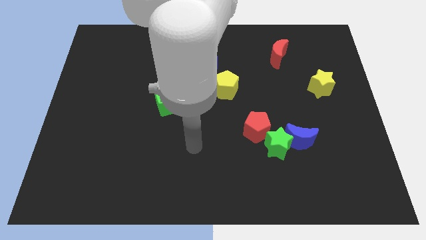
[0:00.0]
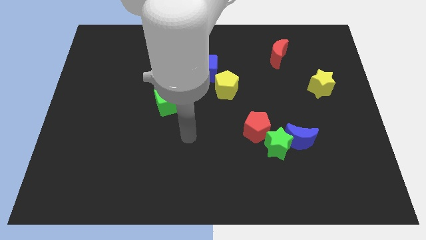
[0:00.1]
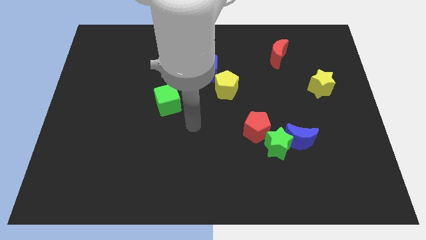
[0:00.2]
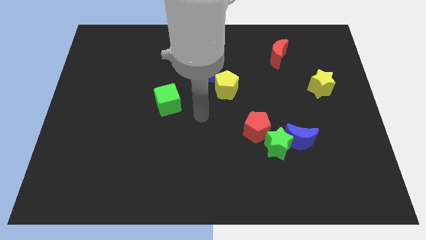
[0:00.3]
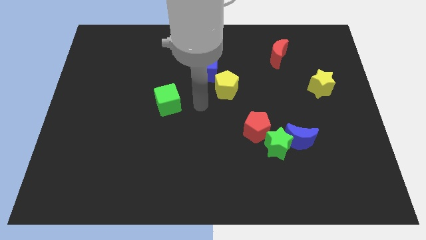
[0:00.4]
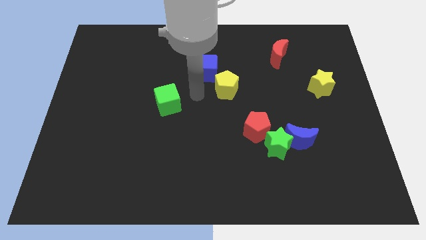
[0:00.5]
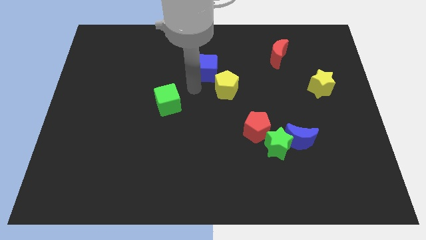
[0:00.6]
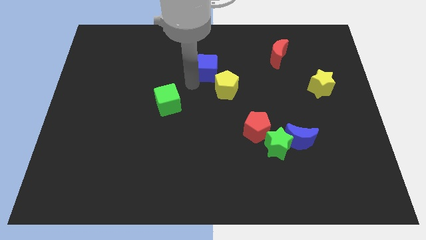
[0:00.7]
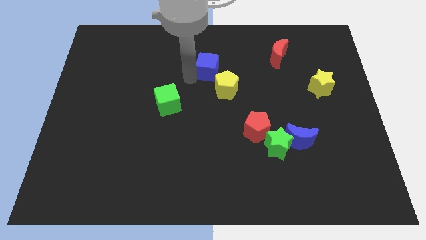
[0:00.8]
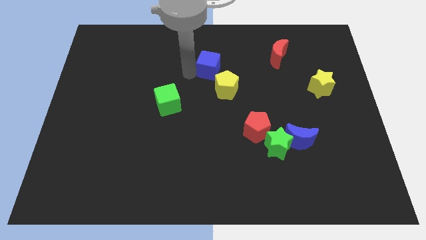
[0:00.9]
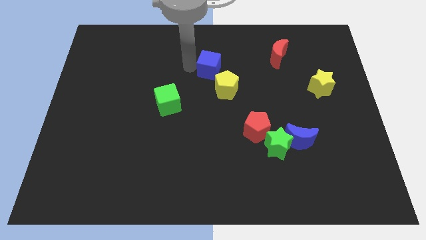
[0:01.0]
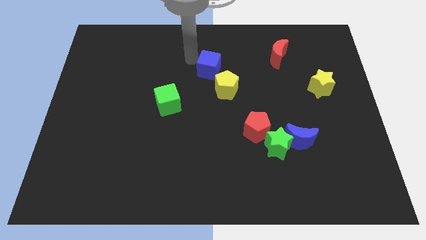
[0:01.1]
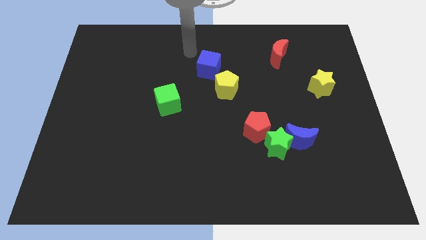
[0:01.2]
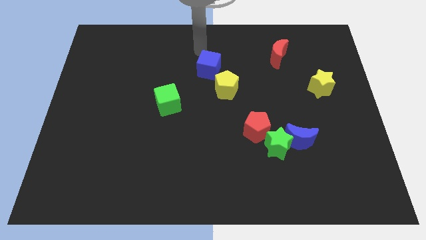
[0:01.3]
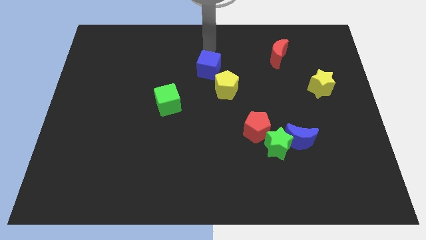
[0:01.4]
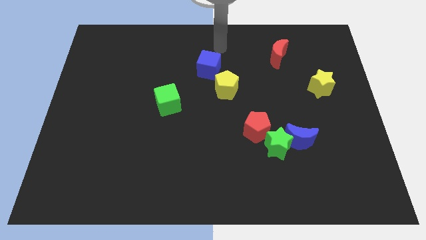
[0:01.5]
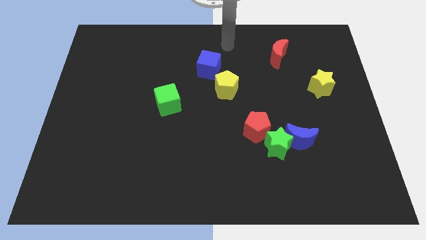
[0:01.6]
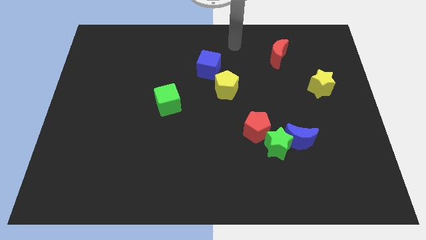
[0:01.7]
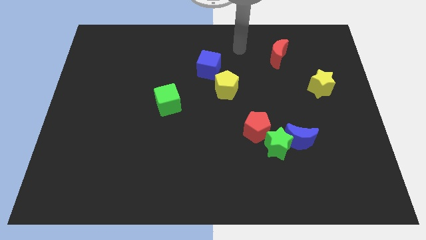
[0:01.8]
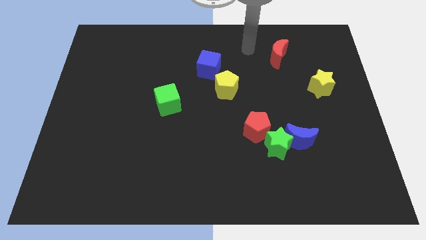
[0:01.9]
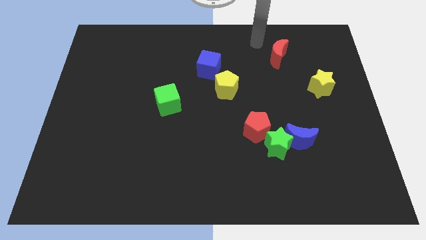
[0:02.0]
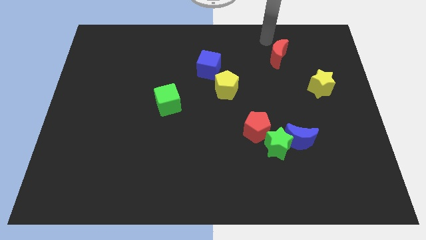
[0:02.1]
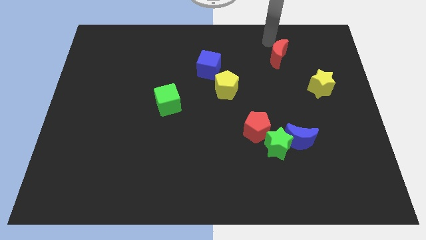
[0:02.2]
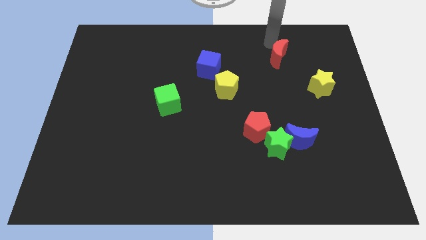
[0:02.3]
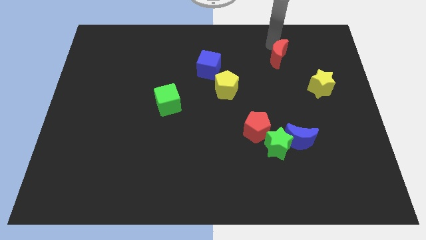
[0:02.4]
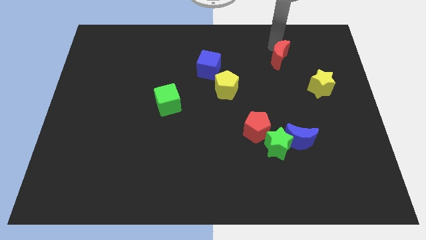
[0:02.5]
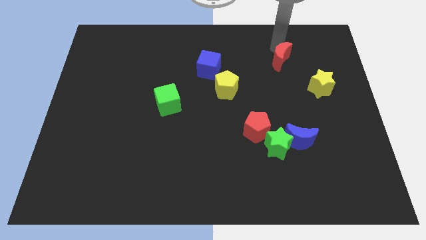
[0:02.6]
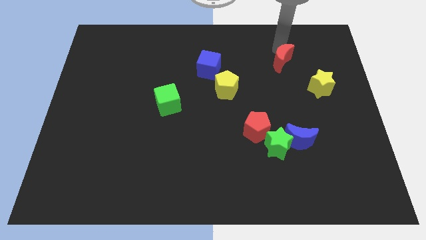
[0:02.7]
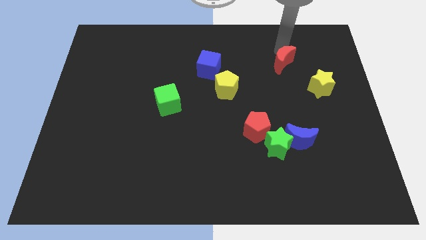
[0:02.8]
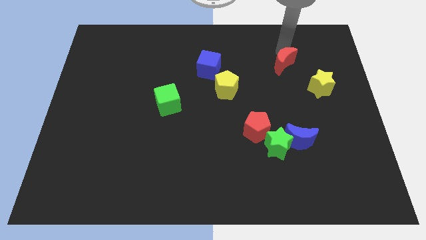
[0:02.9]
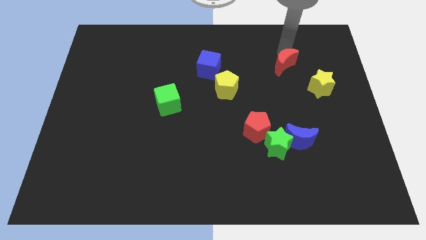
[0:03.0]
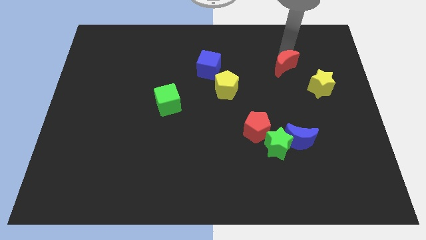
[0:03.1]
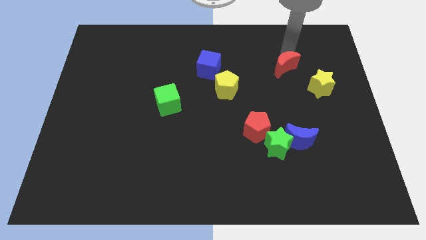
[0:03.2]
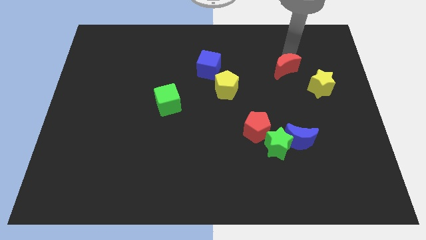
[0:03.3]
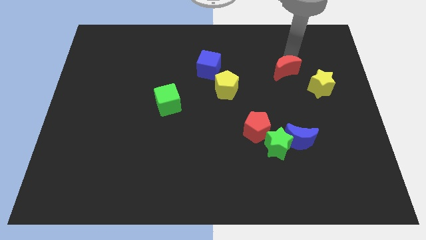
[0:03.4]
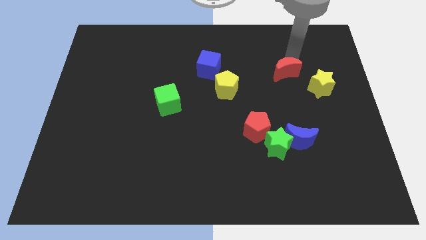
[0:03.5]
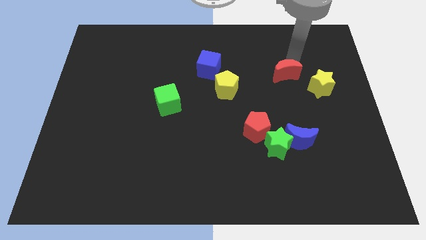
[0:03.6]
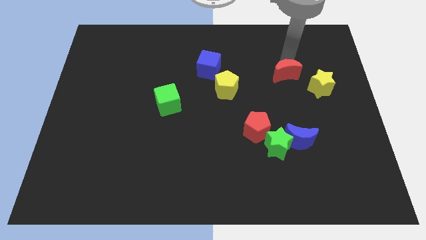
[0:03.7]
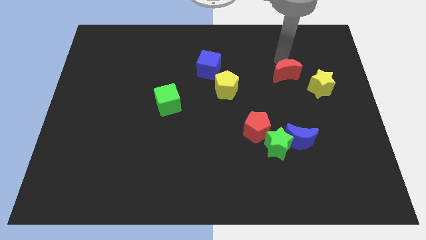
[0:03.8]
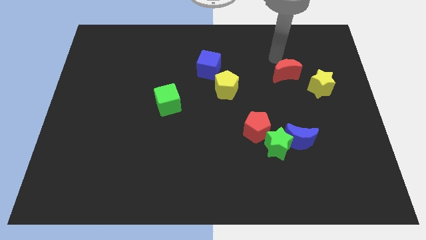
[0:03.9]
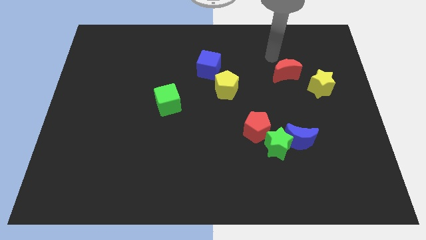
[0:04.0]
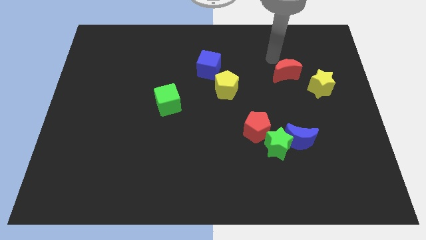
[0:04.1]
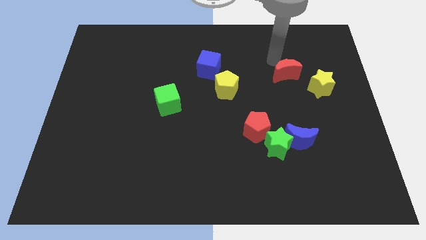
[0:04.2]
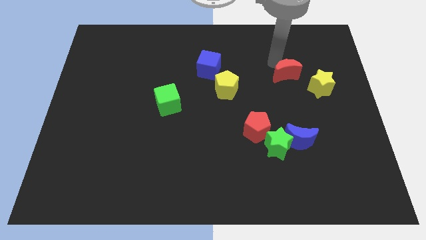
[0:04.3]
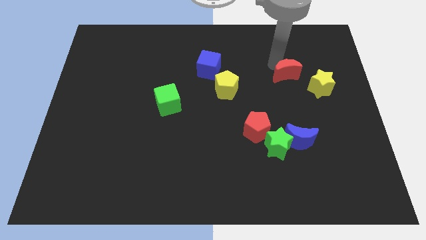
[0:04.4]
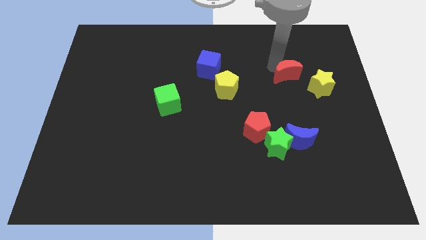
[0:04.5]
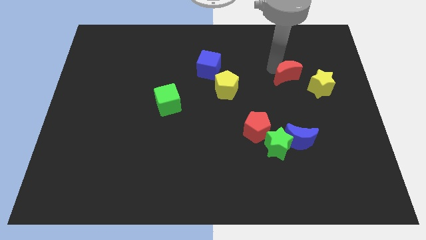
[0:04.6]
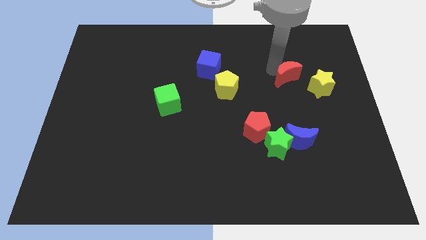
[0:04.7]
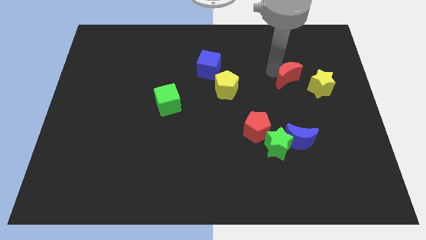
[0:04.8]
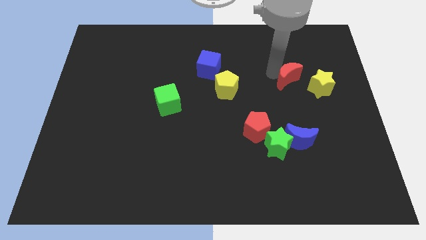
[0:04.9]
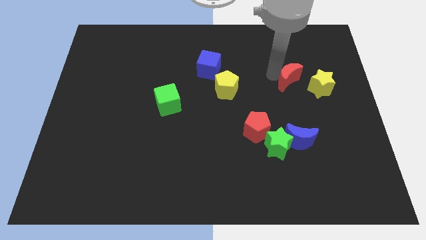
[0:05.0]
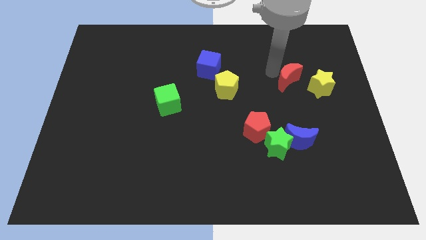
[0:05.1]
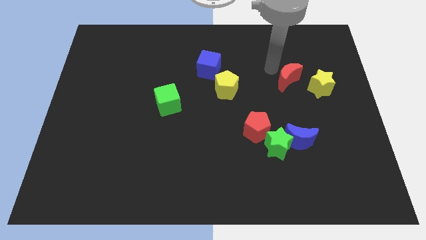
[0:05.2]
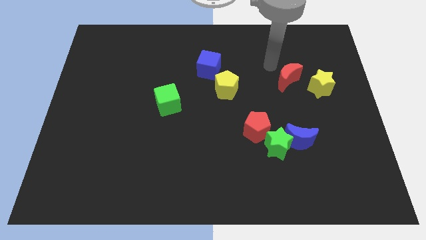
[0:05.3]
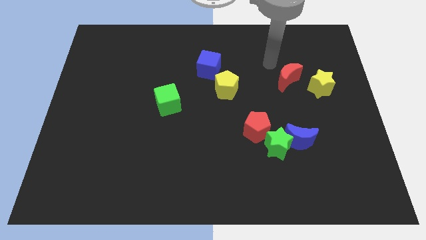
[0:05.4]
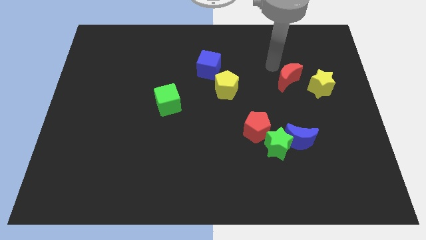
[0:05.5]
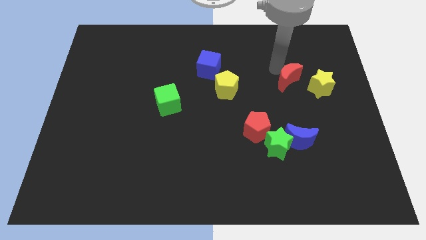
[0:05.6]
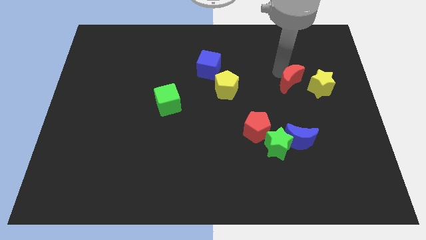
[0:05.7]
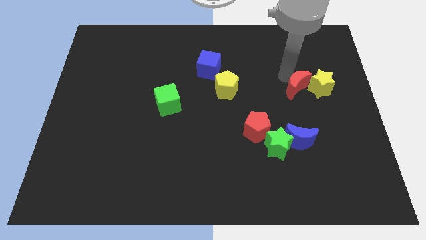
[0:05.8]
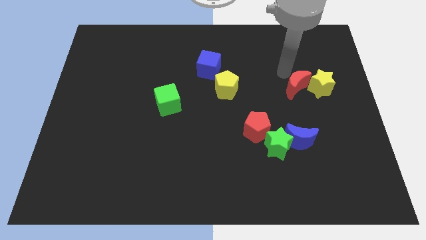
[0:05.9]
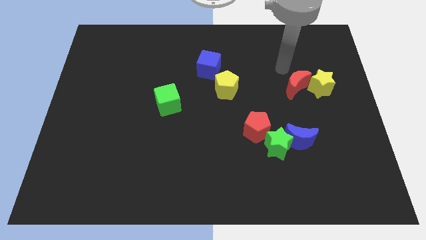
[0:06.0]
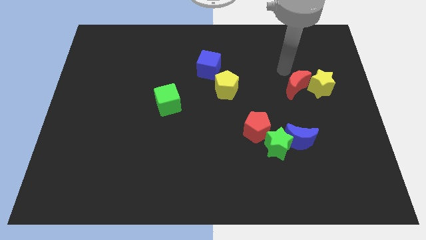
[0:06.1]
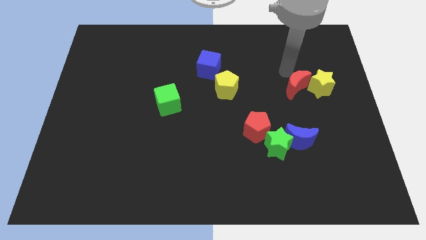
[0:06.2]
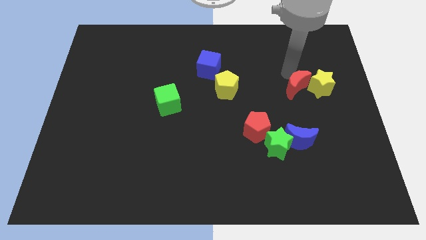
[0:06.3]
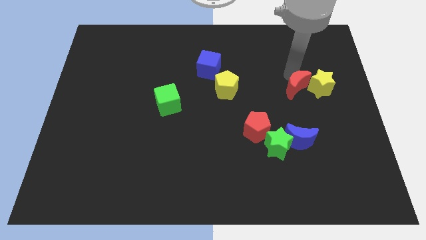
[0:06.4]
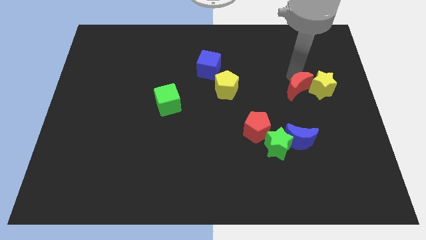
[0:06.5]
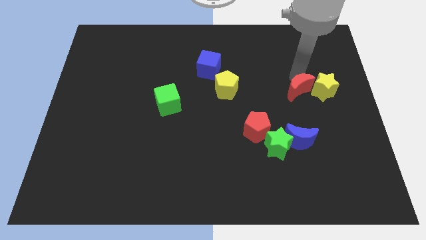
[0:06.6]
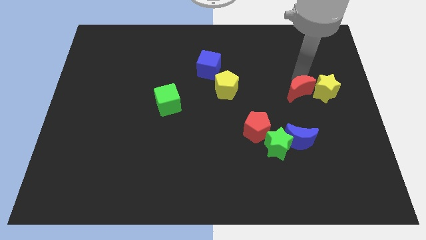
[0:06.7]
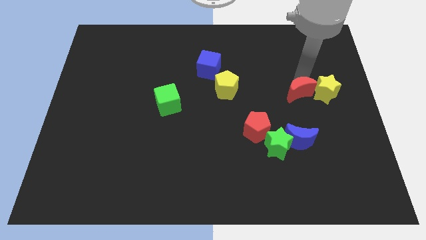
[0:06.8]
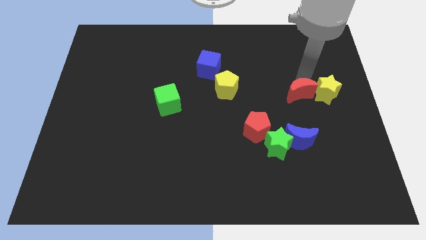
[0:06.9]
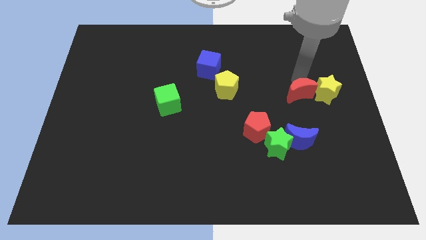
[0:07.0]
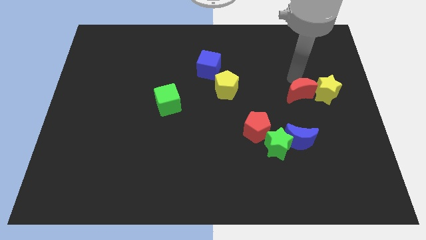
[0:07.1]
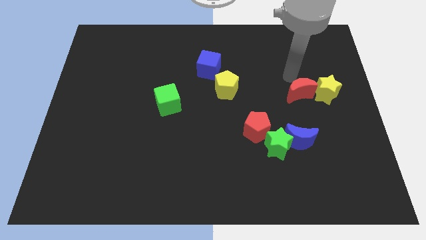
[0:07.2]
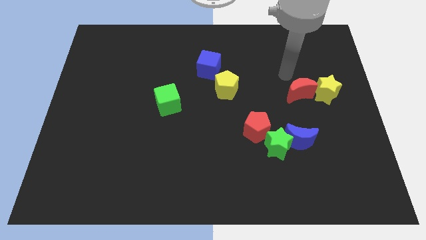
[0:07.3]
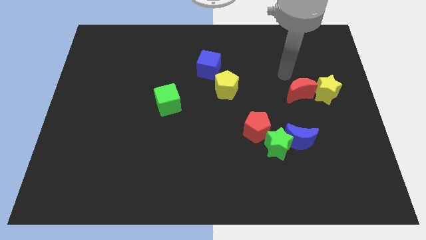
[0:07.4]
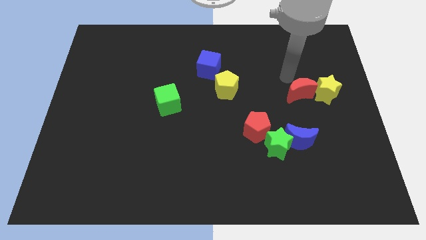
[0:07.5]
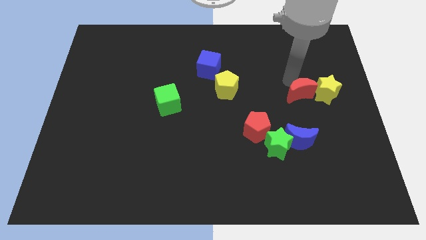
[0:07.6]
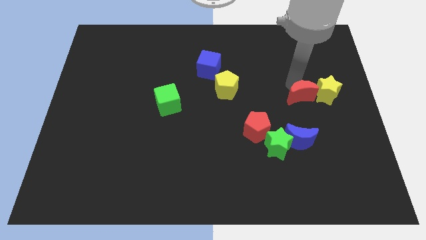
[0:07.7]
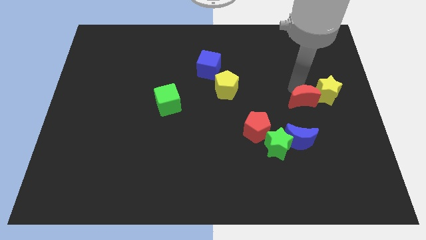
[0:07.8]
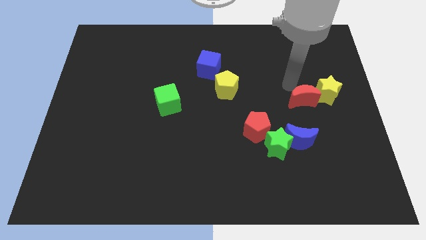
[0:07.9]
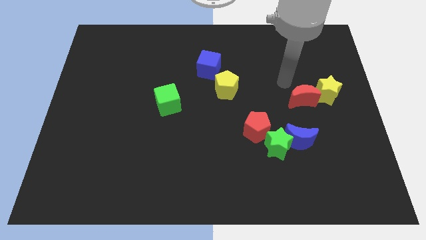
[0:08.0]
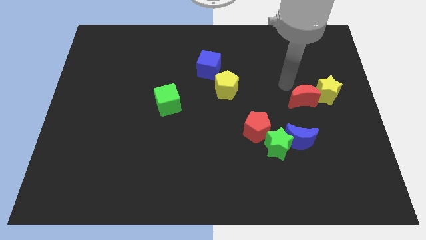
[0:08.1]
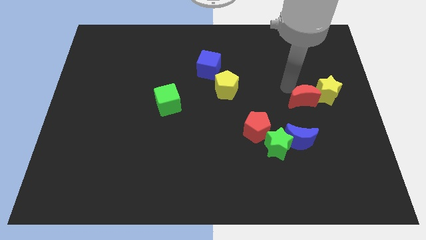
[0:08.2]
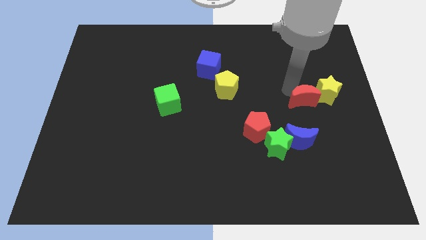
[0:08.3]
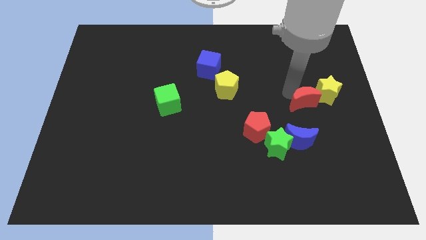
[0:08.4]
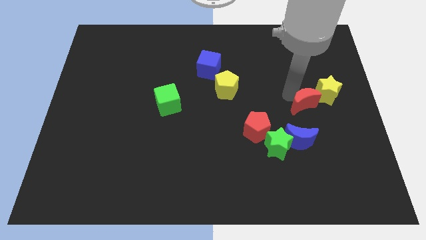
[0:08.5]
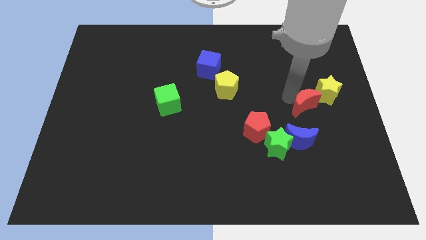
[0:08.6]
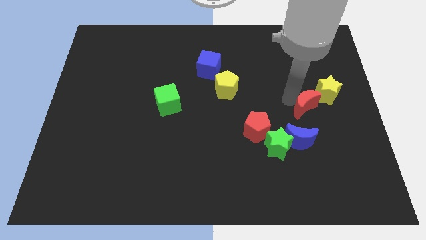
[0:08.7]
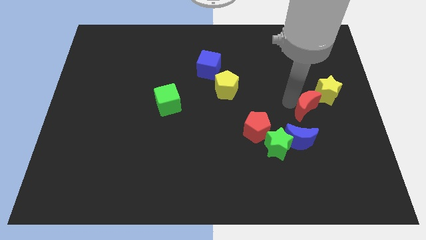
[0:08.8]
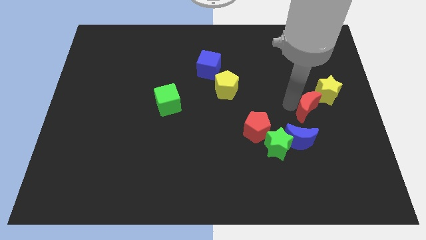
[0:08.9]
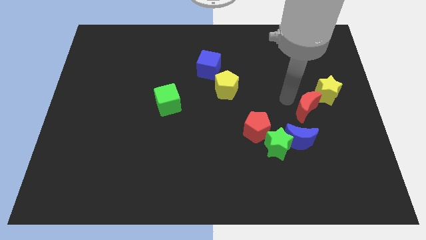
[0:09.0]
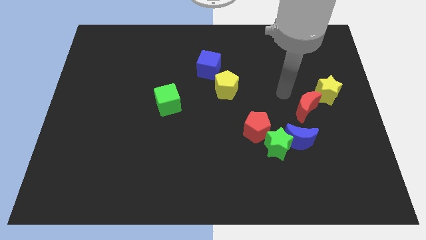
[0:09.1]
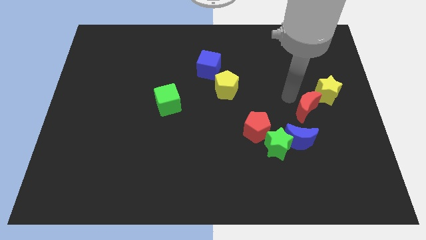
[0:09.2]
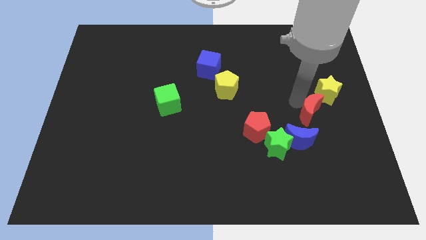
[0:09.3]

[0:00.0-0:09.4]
push the red moon to the bottom of the yellow star
